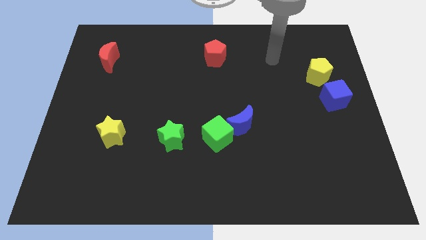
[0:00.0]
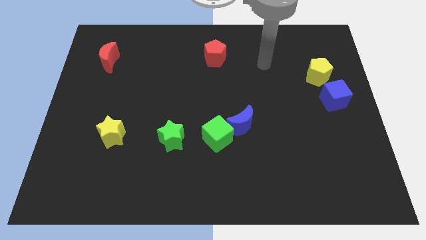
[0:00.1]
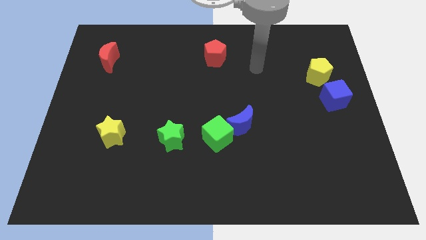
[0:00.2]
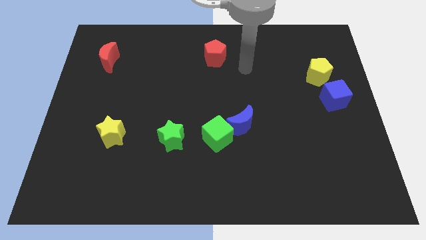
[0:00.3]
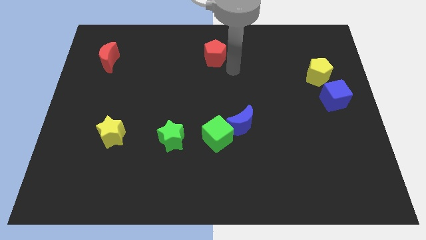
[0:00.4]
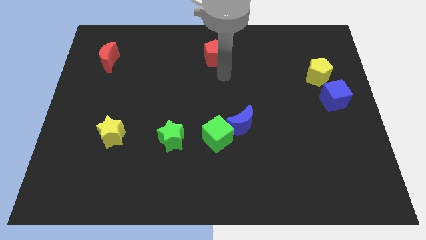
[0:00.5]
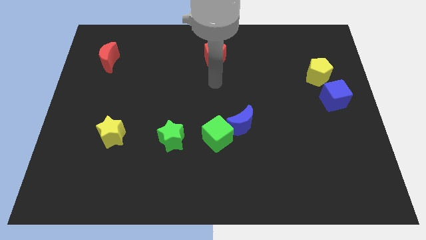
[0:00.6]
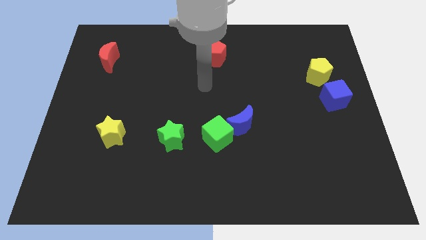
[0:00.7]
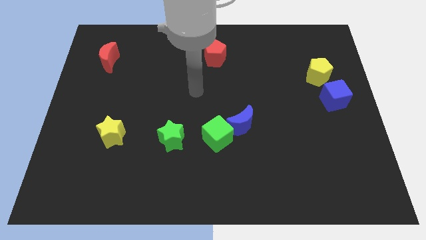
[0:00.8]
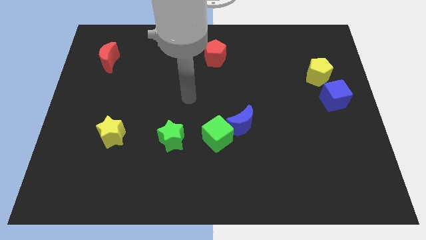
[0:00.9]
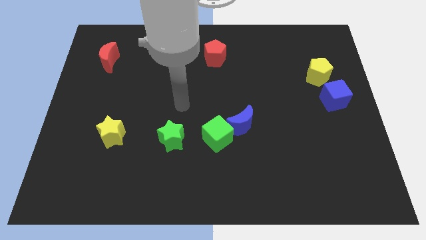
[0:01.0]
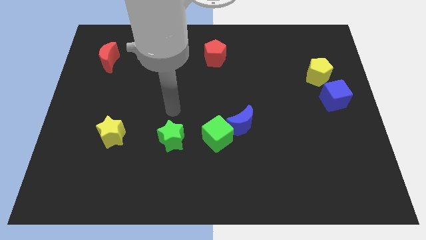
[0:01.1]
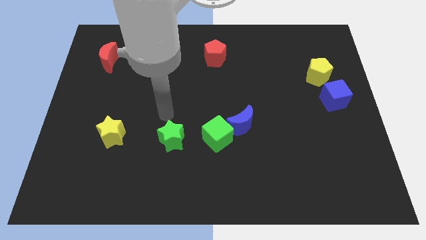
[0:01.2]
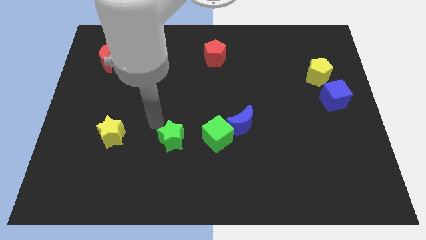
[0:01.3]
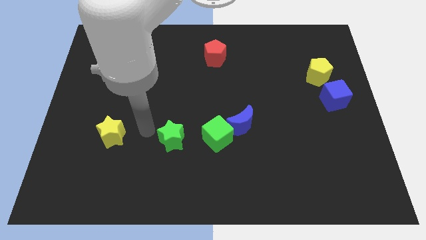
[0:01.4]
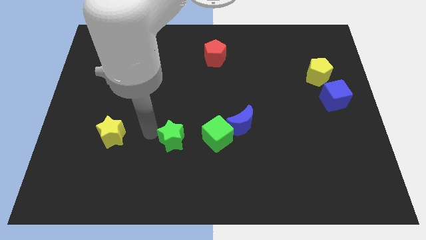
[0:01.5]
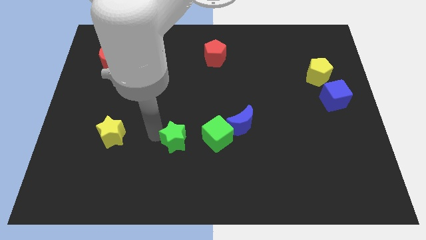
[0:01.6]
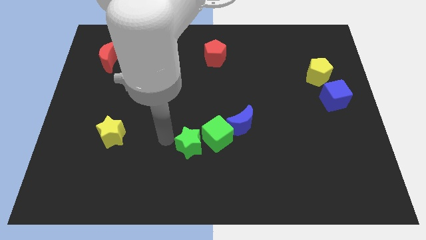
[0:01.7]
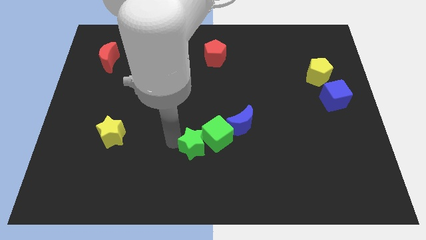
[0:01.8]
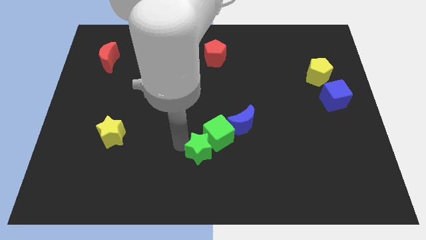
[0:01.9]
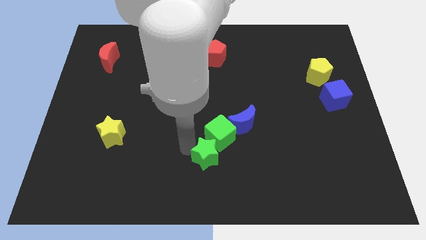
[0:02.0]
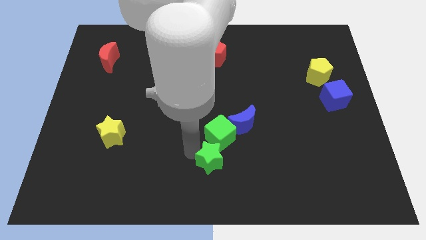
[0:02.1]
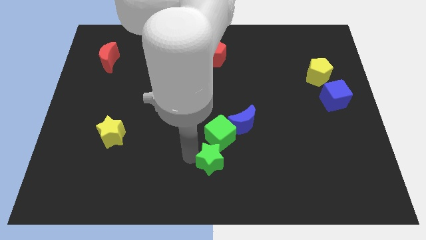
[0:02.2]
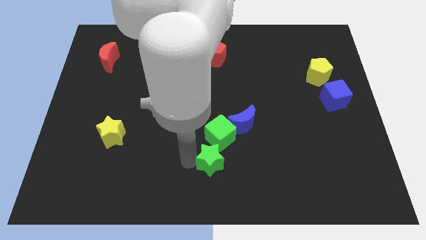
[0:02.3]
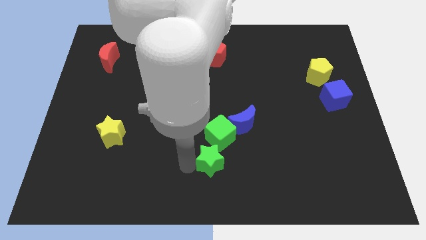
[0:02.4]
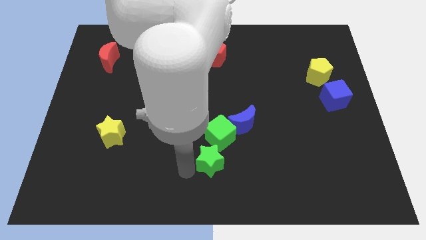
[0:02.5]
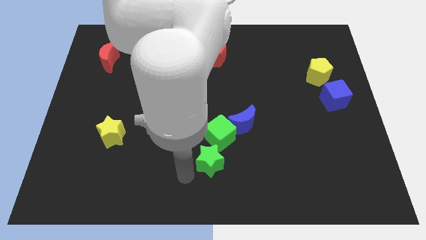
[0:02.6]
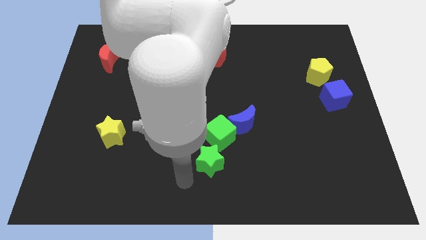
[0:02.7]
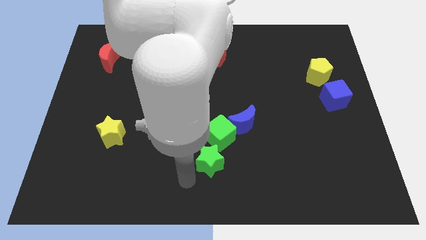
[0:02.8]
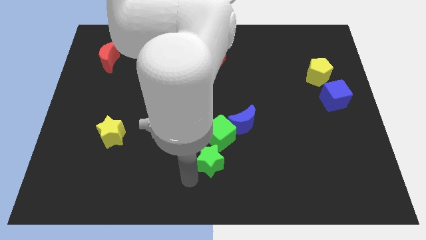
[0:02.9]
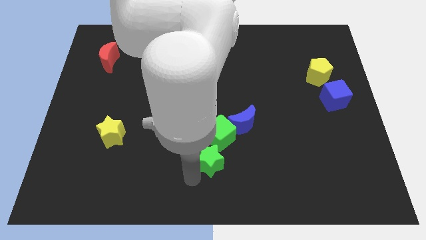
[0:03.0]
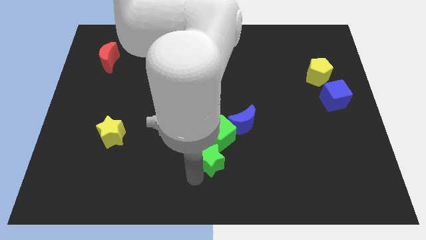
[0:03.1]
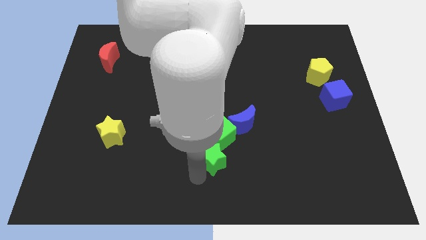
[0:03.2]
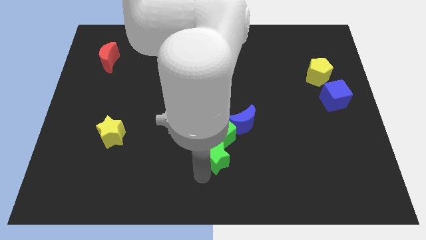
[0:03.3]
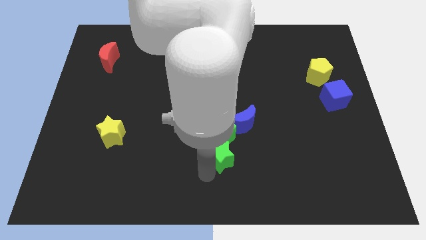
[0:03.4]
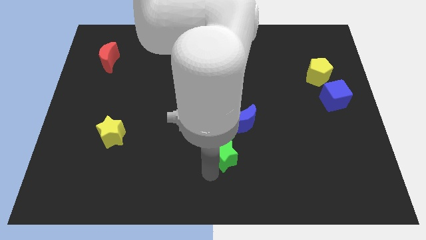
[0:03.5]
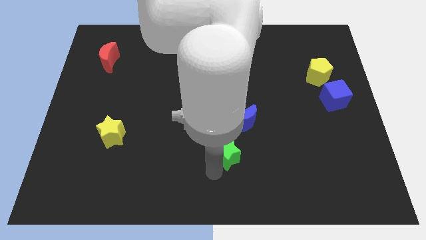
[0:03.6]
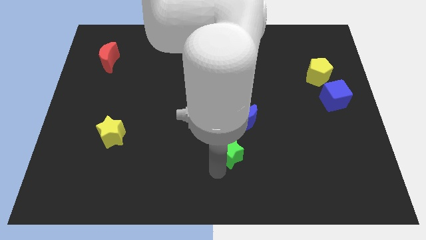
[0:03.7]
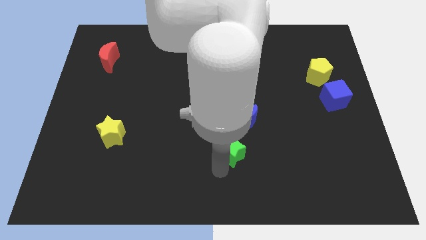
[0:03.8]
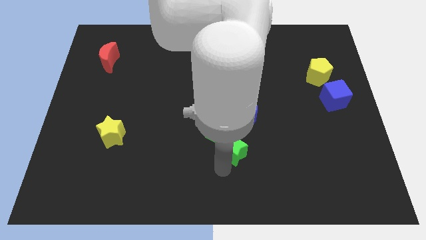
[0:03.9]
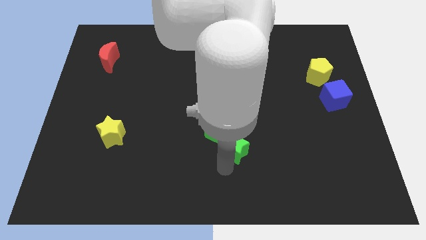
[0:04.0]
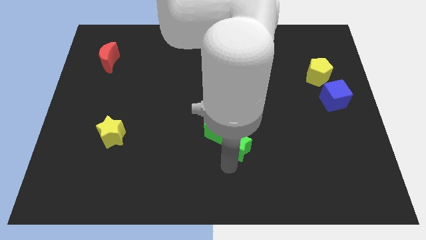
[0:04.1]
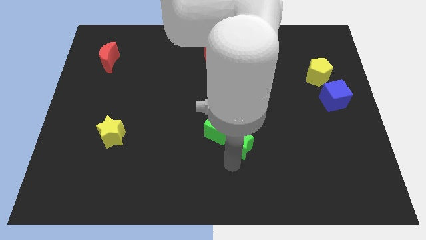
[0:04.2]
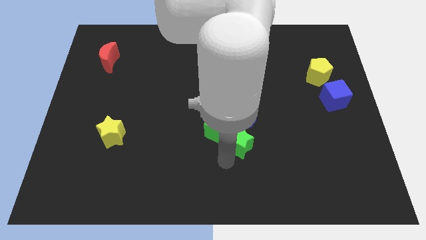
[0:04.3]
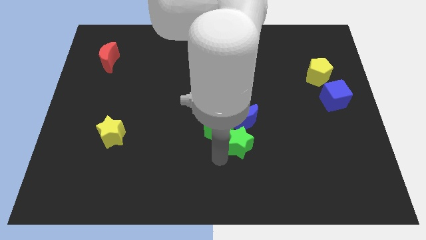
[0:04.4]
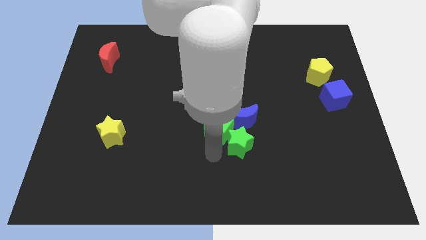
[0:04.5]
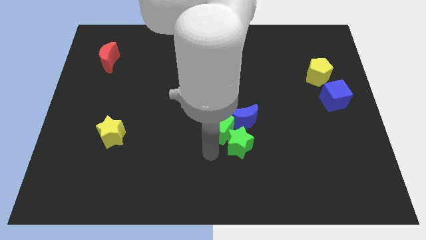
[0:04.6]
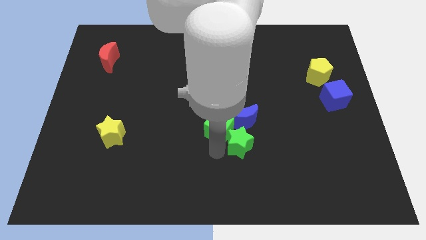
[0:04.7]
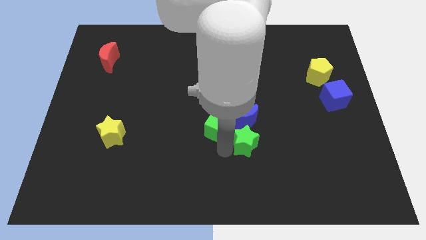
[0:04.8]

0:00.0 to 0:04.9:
move the green star to the bottom right side of the blue moon

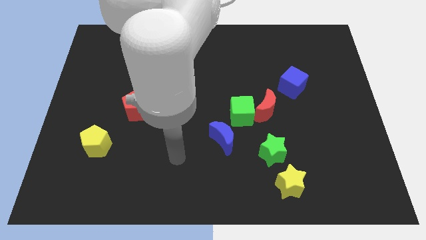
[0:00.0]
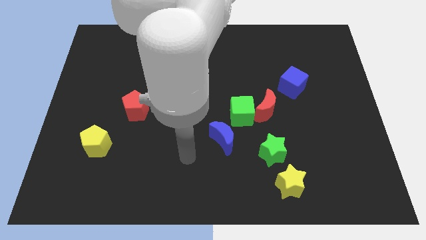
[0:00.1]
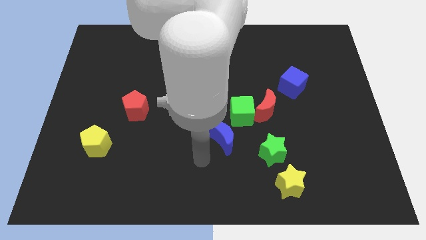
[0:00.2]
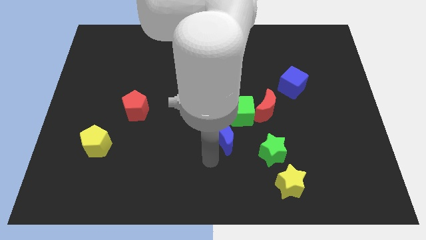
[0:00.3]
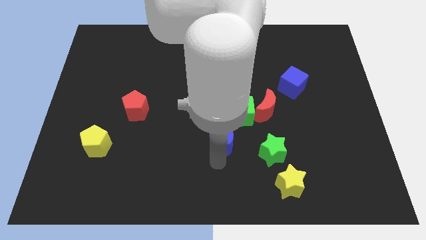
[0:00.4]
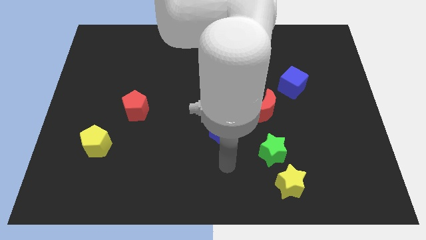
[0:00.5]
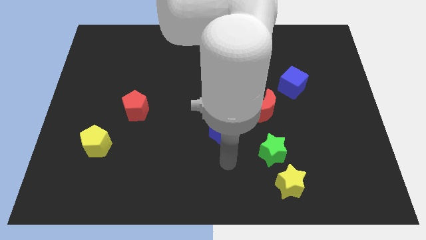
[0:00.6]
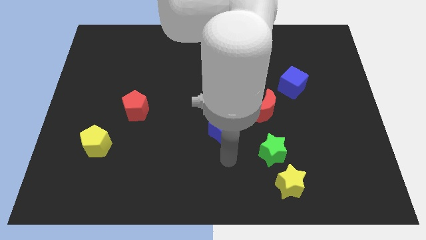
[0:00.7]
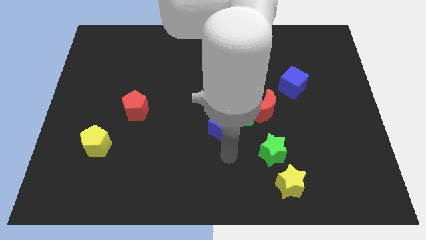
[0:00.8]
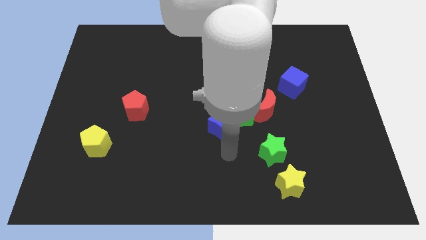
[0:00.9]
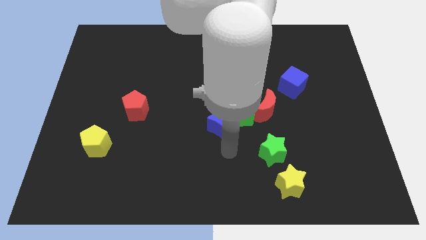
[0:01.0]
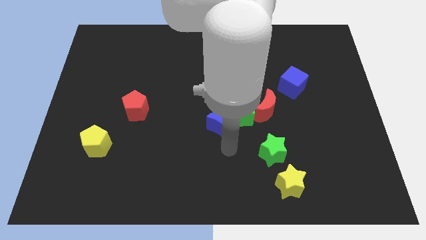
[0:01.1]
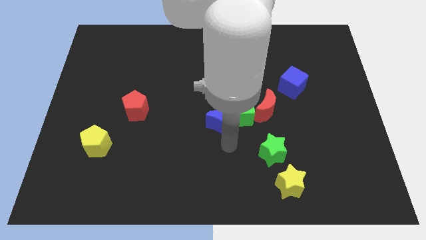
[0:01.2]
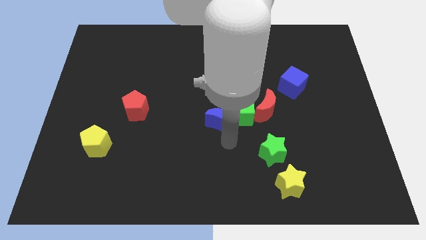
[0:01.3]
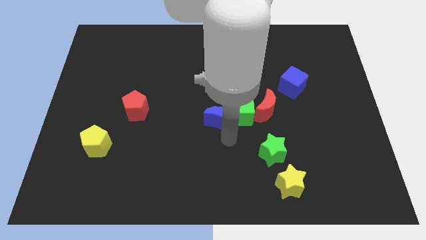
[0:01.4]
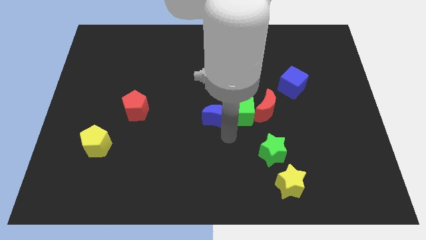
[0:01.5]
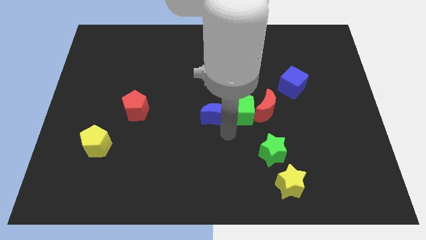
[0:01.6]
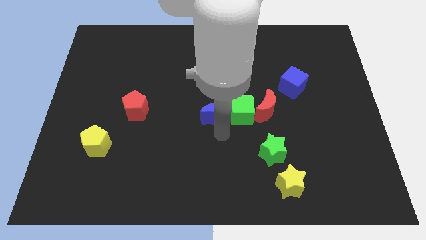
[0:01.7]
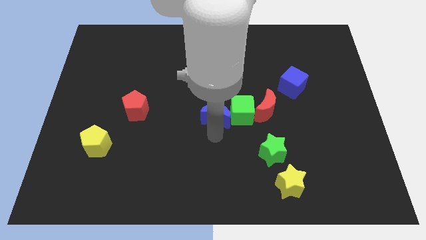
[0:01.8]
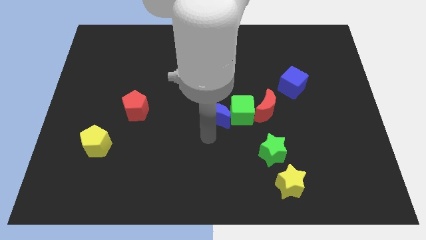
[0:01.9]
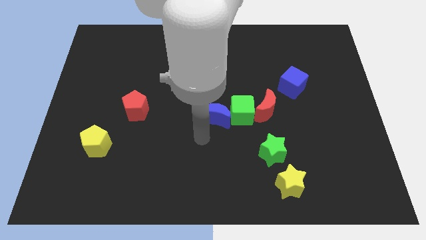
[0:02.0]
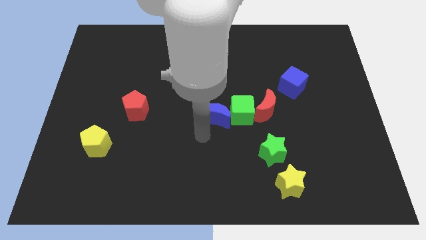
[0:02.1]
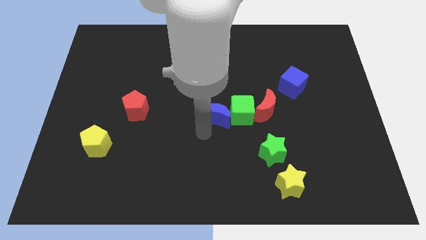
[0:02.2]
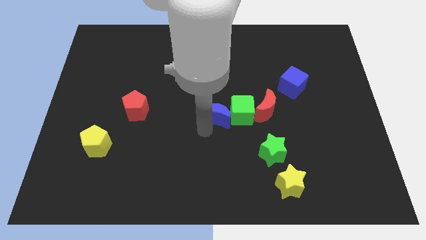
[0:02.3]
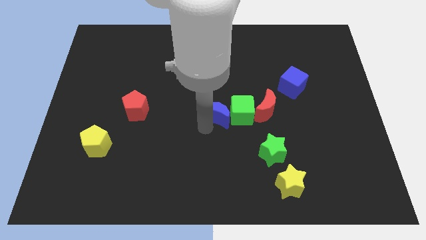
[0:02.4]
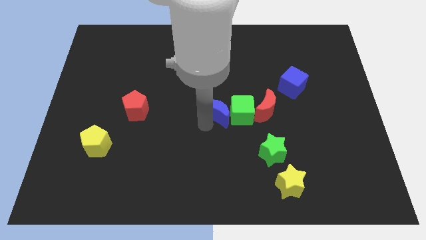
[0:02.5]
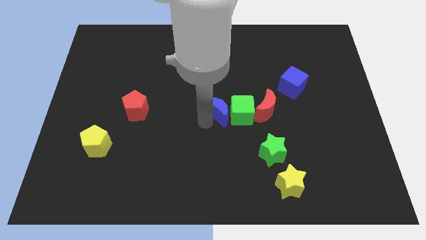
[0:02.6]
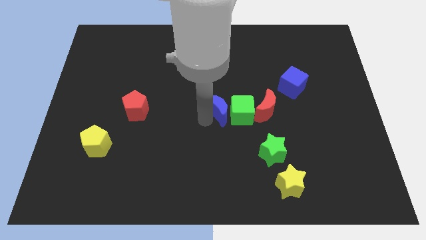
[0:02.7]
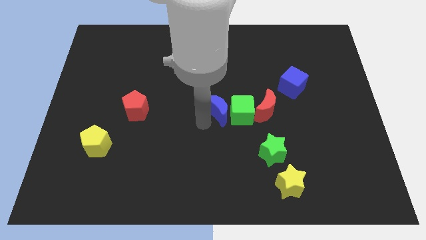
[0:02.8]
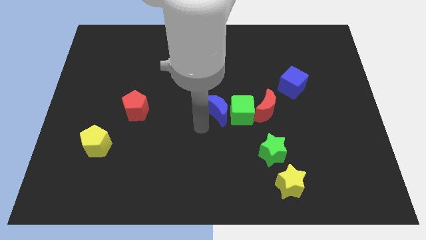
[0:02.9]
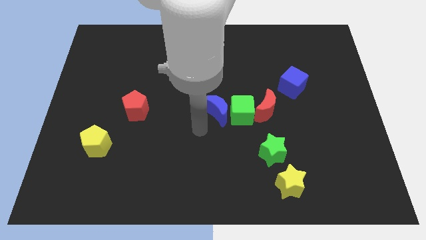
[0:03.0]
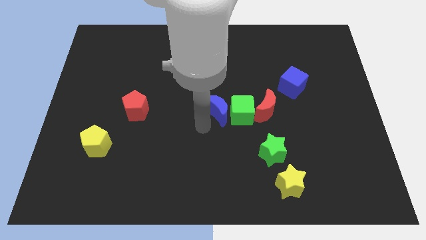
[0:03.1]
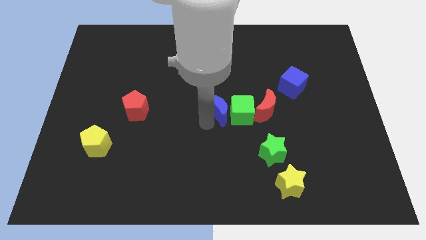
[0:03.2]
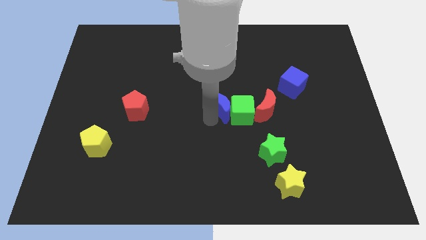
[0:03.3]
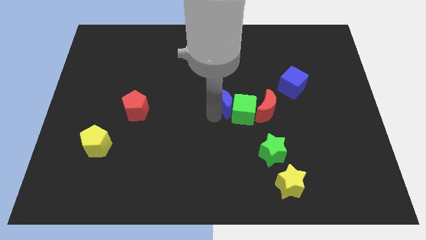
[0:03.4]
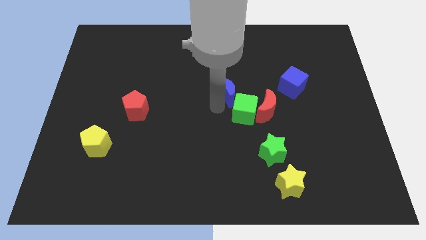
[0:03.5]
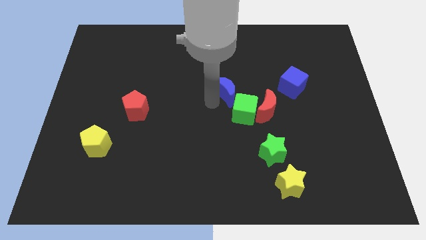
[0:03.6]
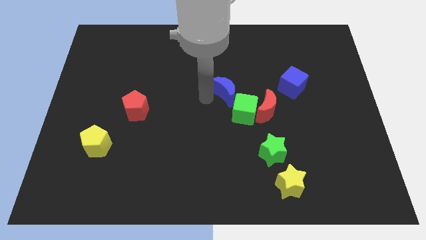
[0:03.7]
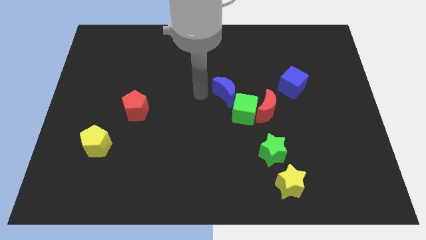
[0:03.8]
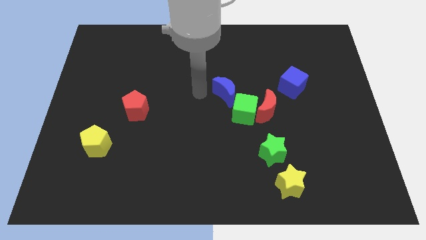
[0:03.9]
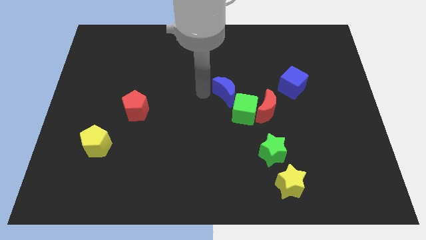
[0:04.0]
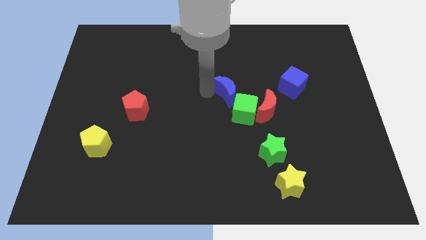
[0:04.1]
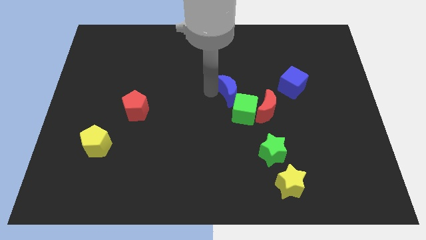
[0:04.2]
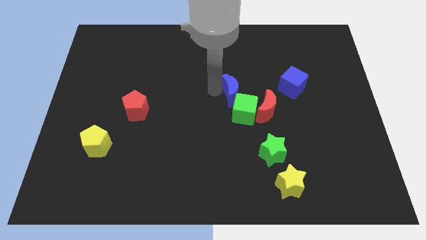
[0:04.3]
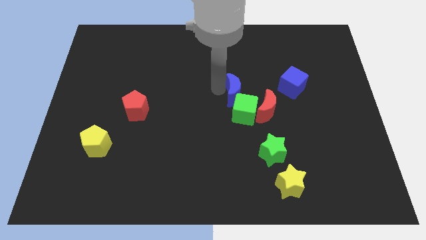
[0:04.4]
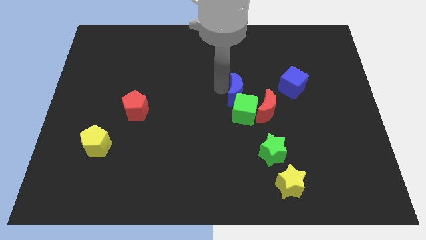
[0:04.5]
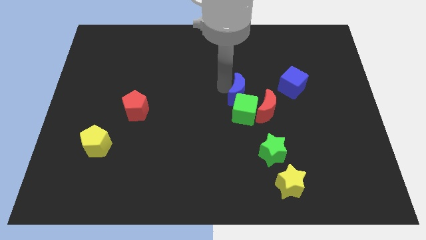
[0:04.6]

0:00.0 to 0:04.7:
push the blue moon to the top right of the green cube
